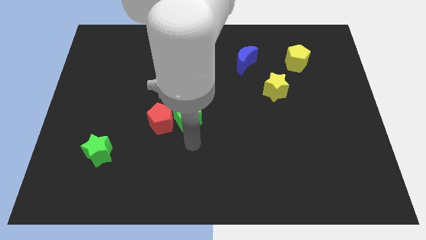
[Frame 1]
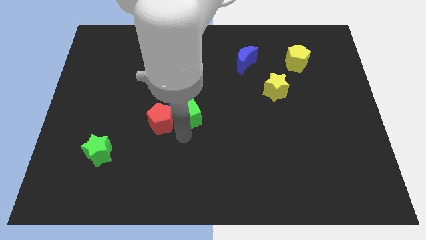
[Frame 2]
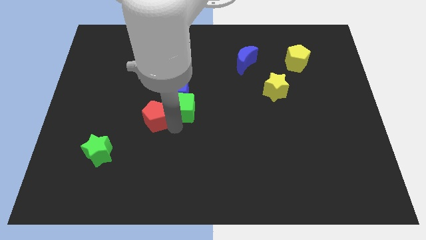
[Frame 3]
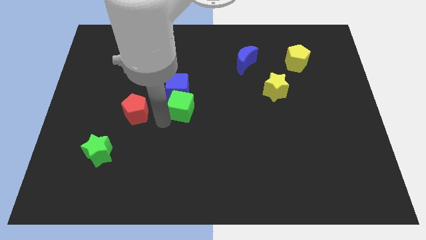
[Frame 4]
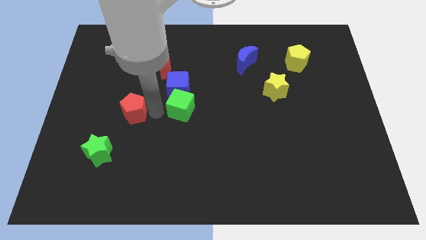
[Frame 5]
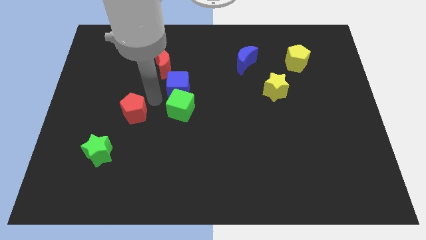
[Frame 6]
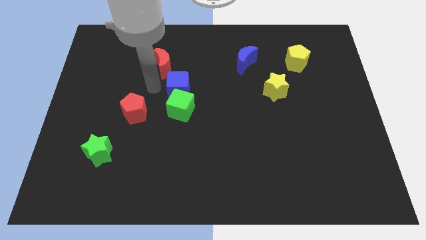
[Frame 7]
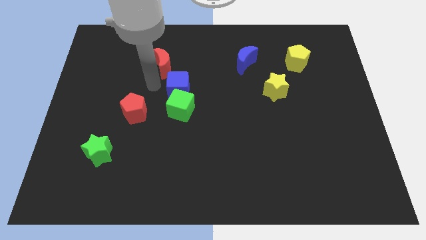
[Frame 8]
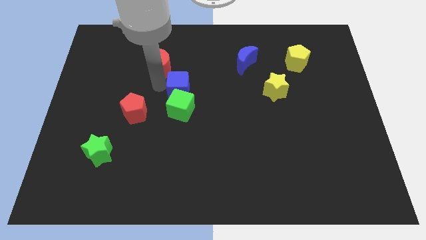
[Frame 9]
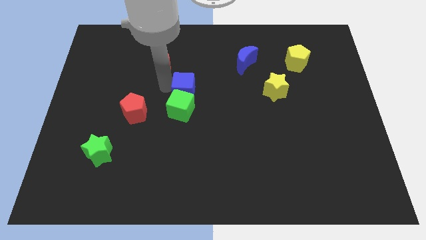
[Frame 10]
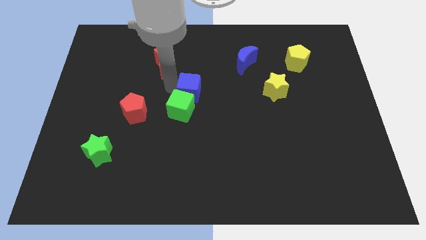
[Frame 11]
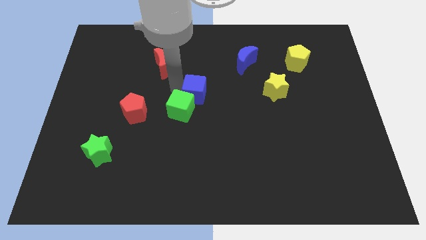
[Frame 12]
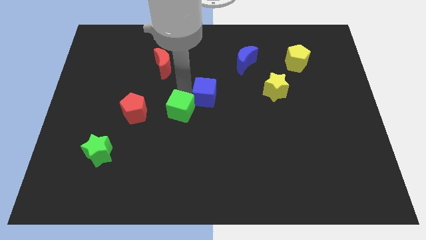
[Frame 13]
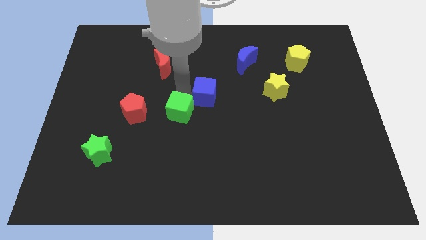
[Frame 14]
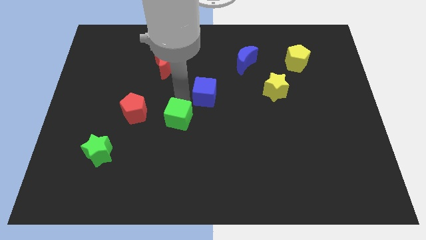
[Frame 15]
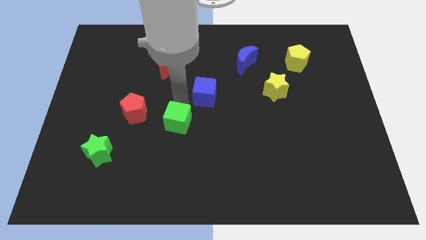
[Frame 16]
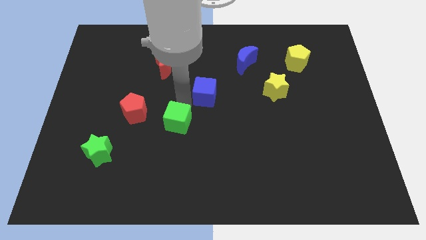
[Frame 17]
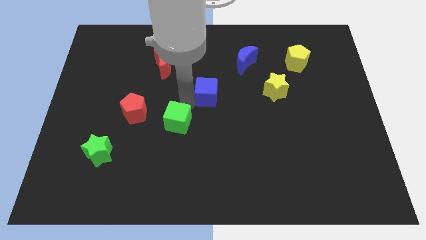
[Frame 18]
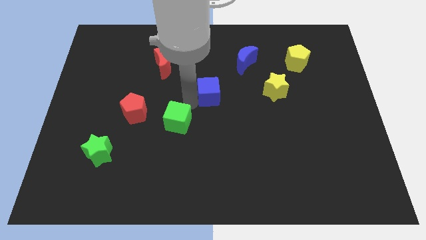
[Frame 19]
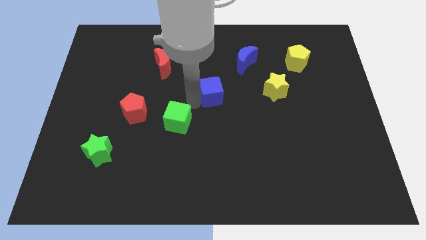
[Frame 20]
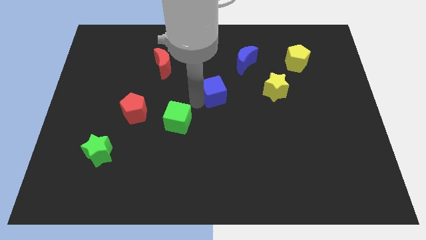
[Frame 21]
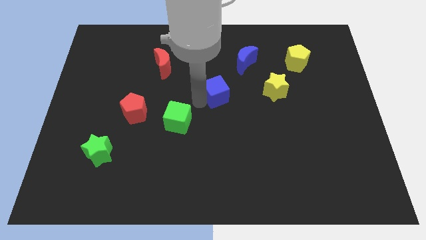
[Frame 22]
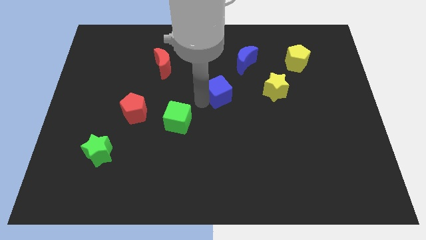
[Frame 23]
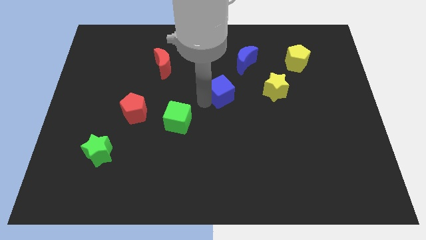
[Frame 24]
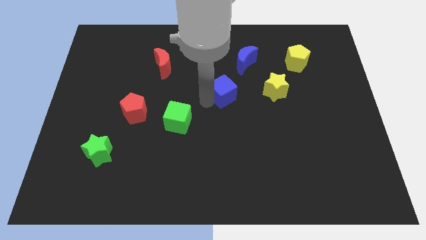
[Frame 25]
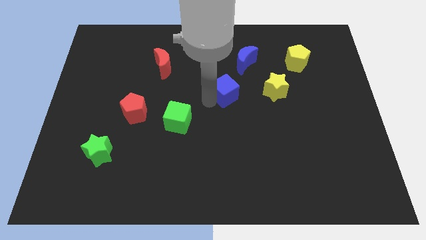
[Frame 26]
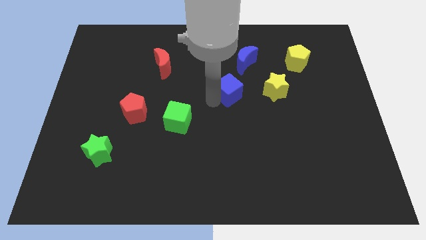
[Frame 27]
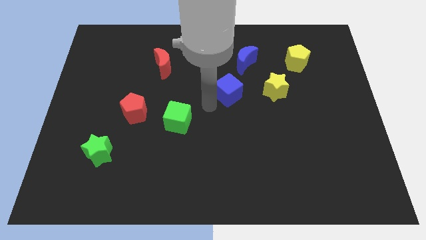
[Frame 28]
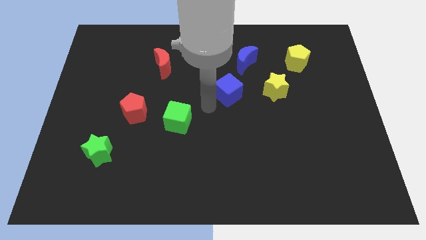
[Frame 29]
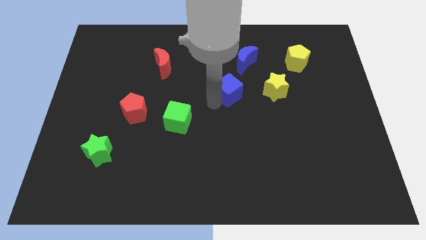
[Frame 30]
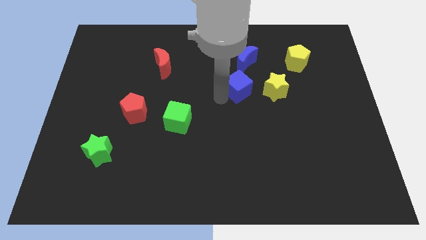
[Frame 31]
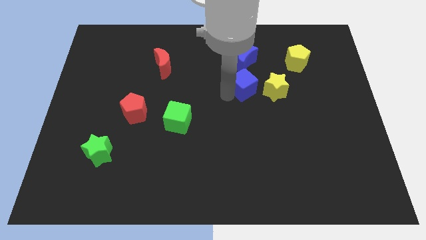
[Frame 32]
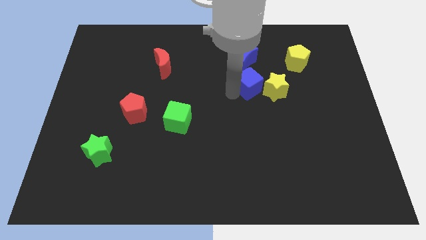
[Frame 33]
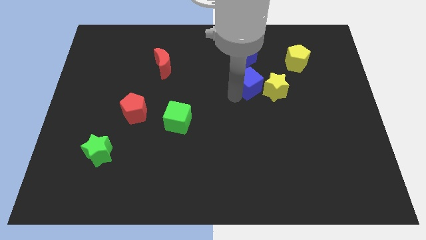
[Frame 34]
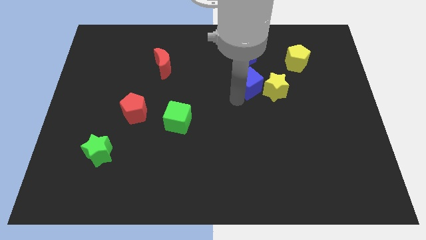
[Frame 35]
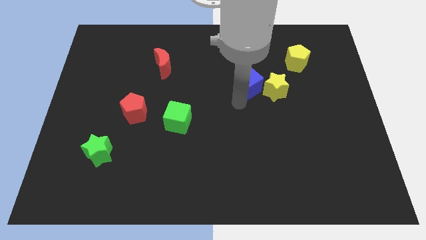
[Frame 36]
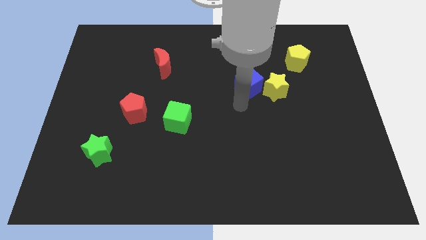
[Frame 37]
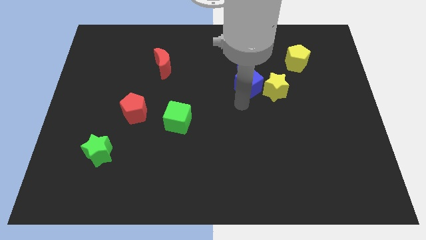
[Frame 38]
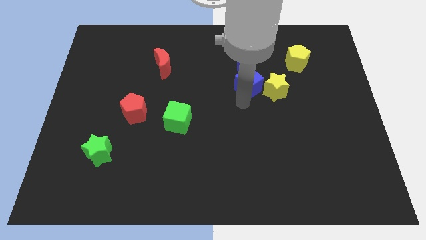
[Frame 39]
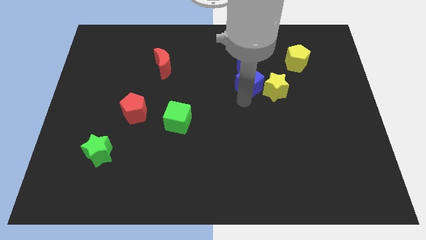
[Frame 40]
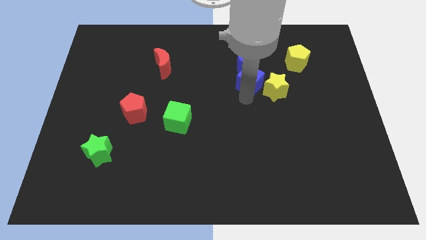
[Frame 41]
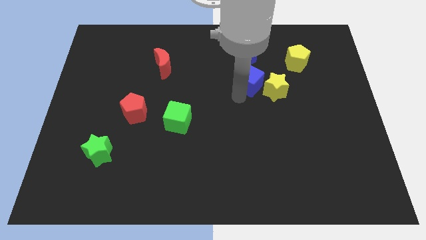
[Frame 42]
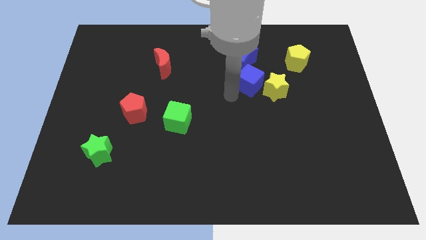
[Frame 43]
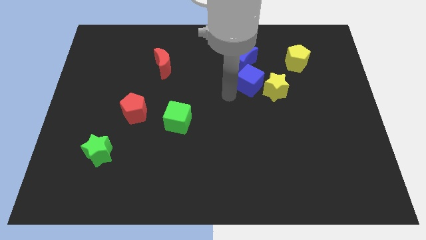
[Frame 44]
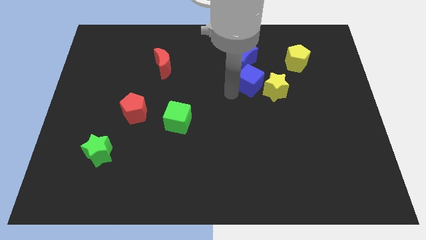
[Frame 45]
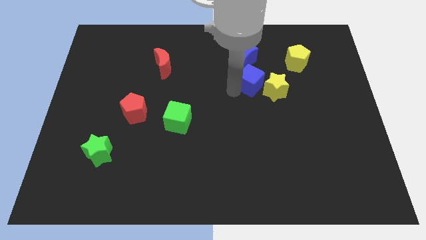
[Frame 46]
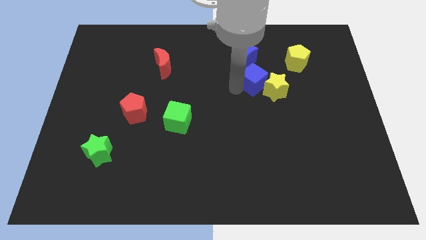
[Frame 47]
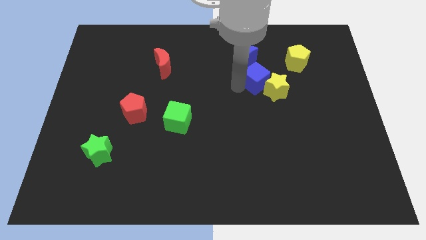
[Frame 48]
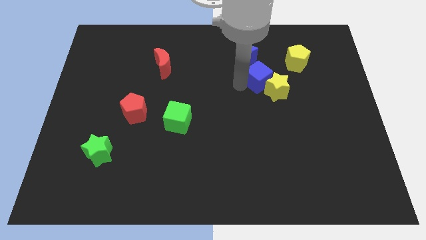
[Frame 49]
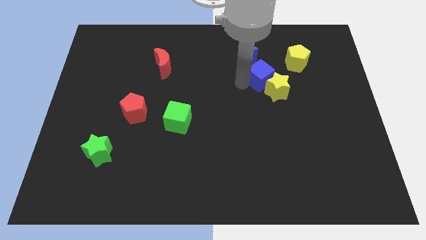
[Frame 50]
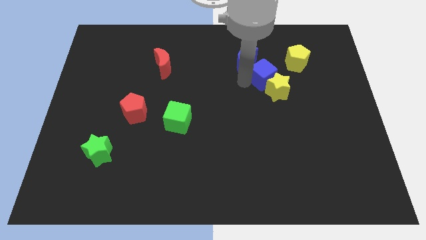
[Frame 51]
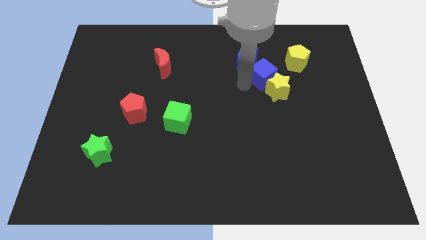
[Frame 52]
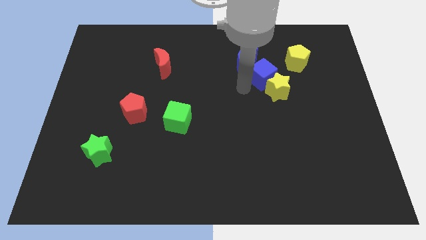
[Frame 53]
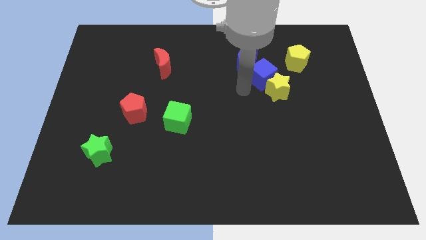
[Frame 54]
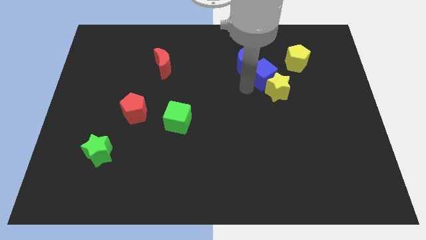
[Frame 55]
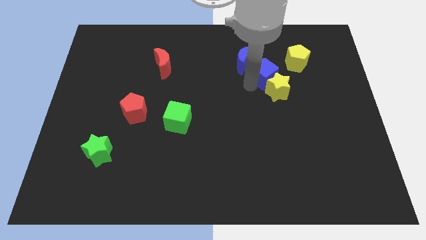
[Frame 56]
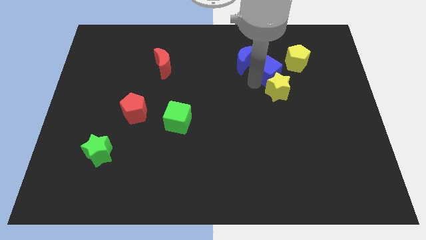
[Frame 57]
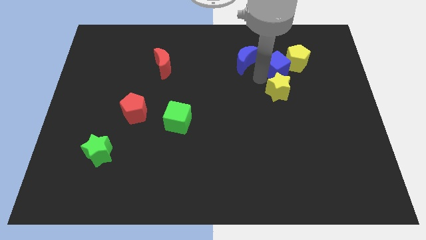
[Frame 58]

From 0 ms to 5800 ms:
push the blue cube to the yellow pentagon

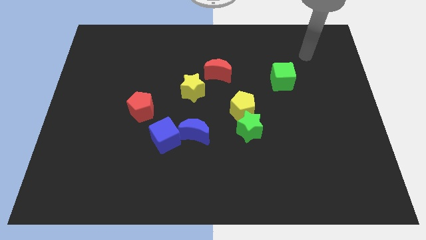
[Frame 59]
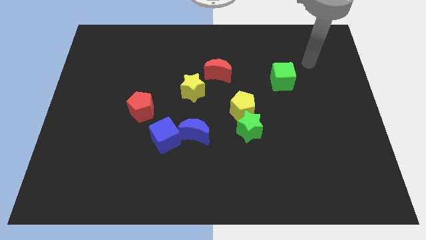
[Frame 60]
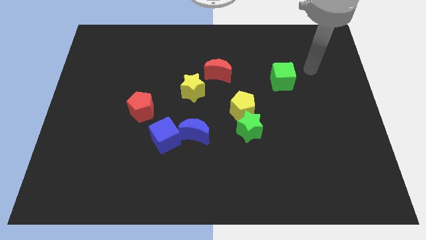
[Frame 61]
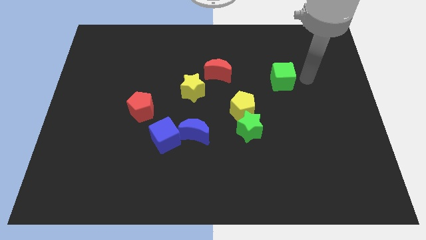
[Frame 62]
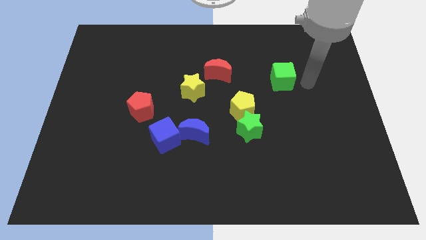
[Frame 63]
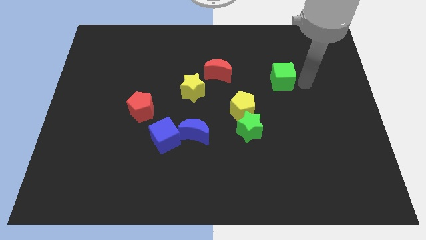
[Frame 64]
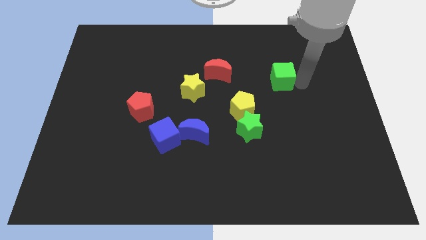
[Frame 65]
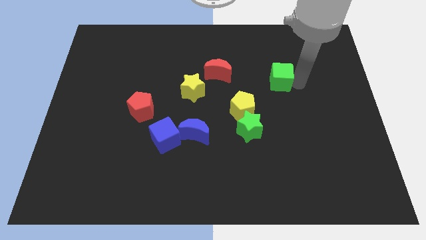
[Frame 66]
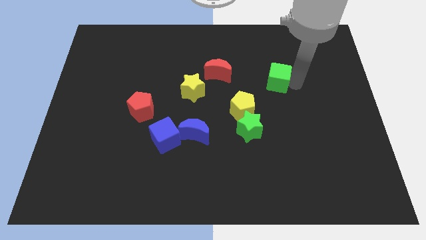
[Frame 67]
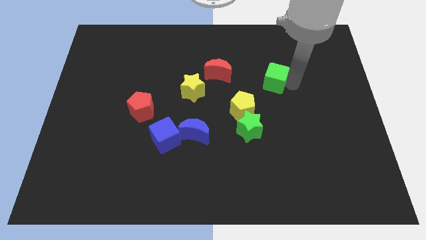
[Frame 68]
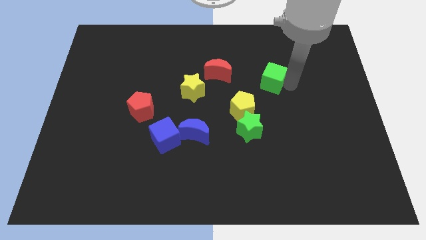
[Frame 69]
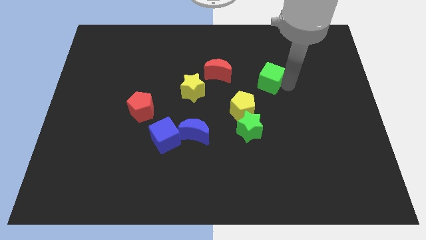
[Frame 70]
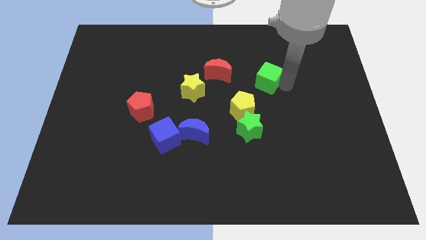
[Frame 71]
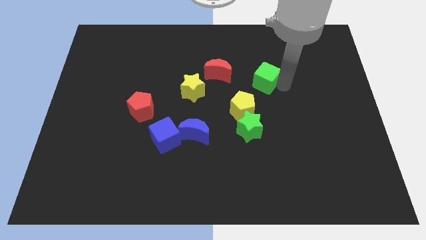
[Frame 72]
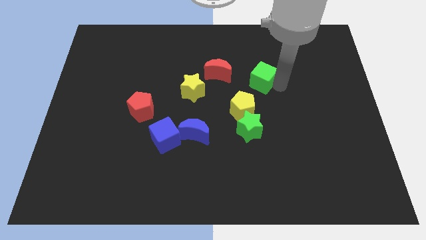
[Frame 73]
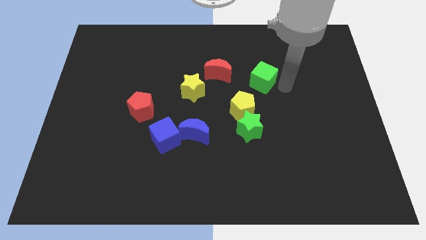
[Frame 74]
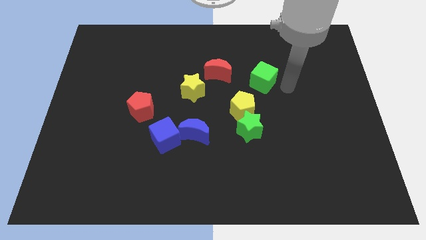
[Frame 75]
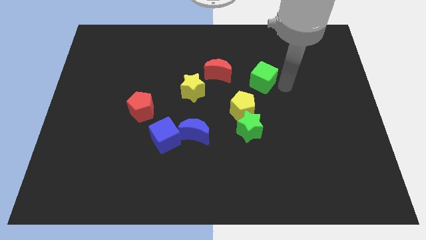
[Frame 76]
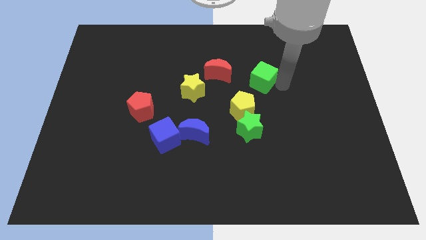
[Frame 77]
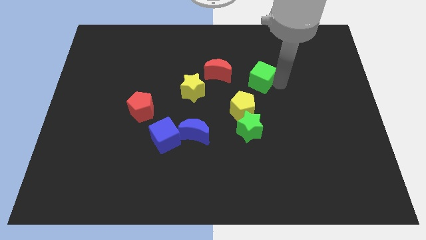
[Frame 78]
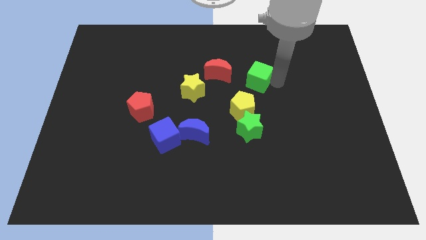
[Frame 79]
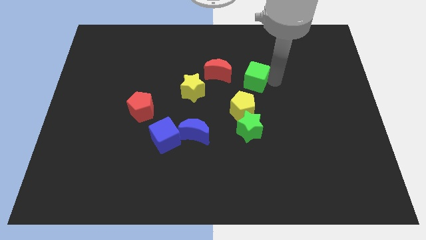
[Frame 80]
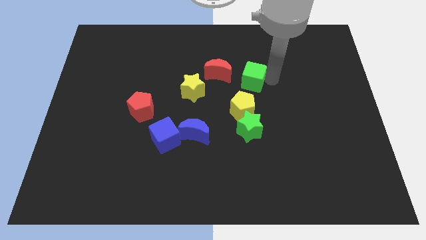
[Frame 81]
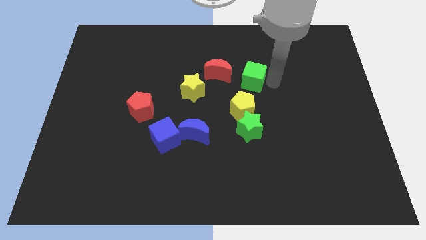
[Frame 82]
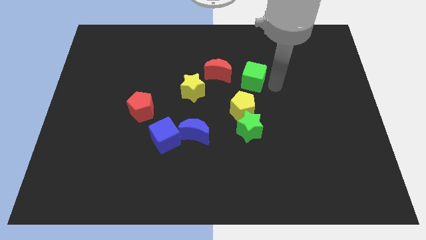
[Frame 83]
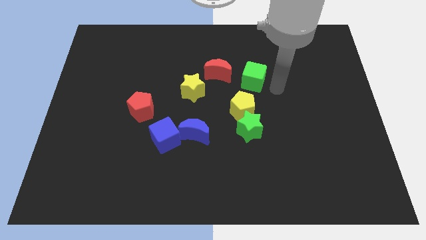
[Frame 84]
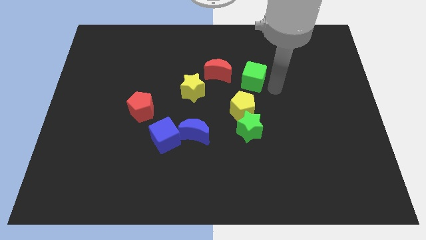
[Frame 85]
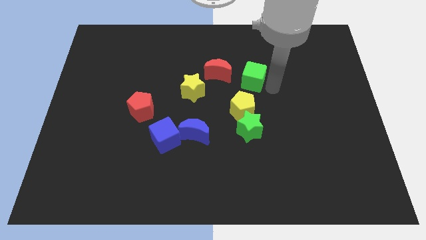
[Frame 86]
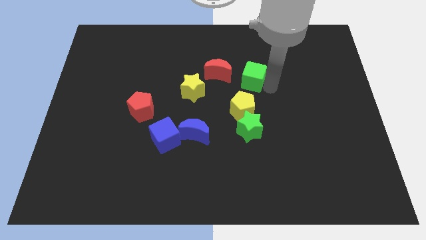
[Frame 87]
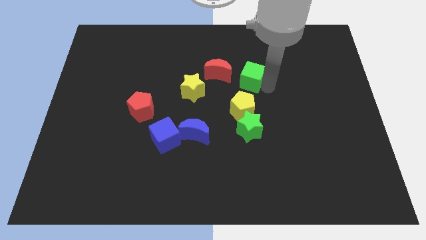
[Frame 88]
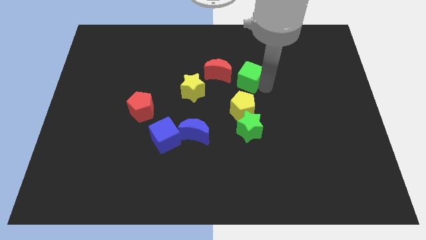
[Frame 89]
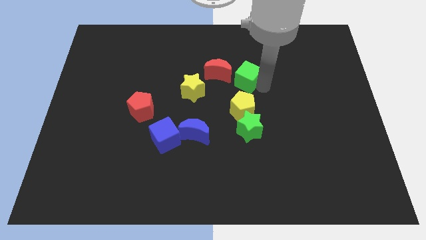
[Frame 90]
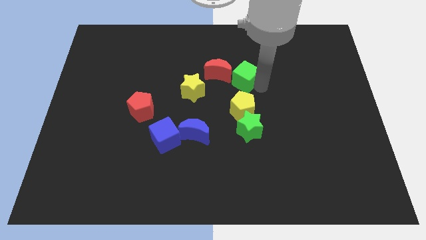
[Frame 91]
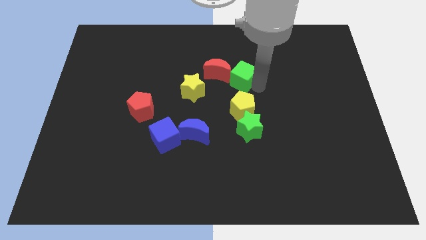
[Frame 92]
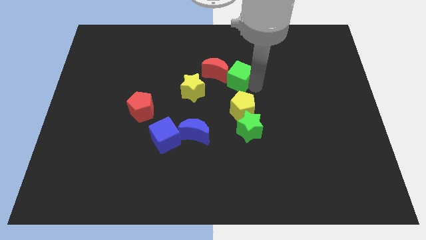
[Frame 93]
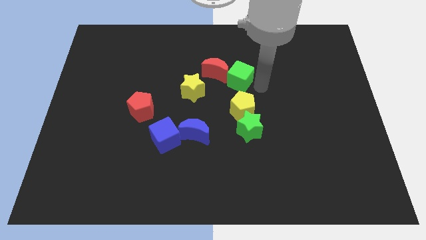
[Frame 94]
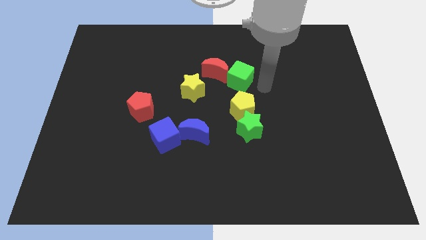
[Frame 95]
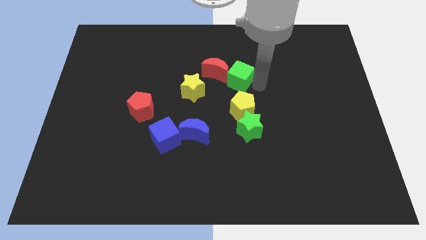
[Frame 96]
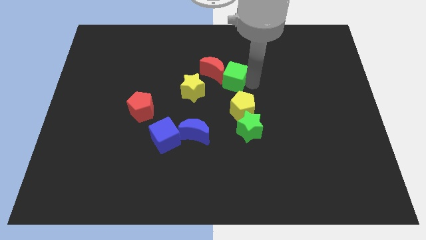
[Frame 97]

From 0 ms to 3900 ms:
move the green cube next to the red moon
